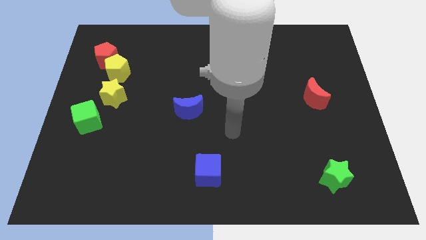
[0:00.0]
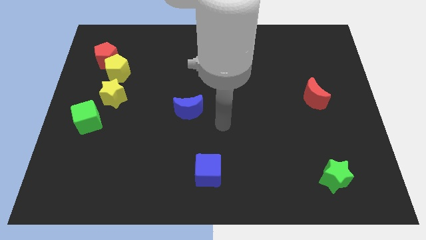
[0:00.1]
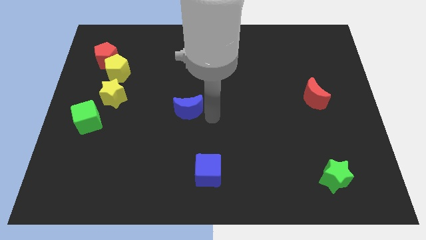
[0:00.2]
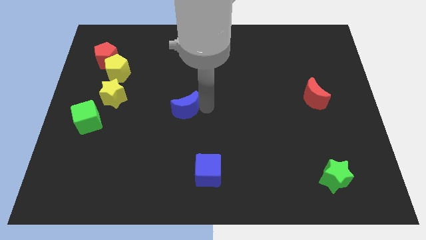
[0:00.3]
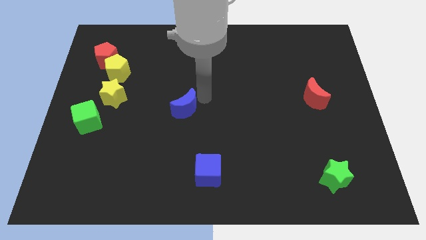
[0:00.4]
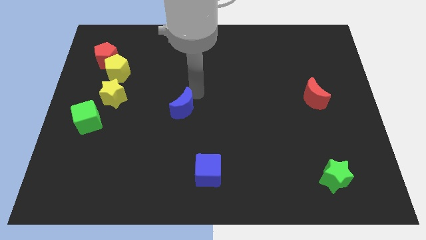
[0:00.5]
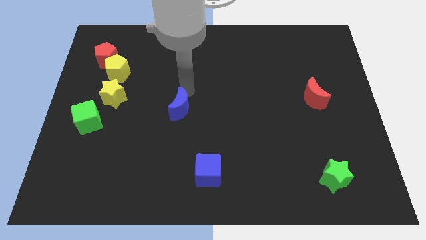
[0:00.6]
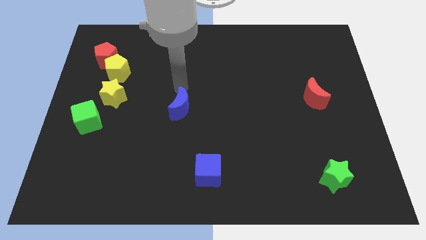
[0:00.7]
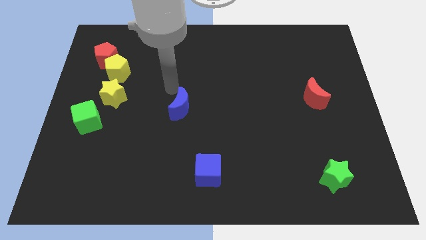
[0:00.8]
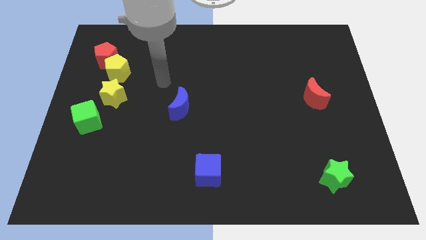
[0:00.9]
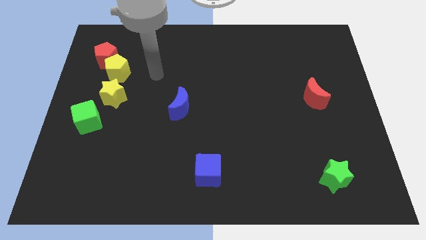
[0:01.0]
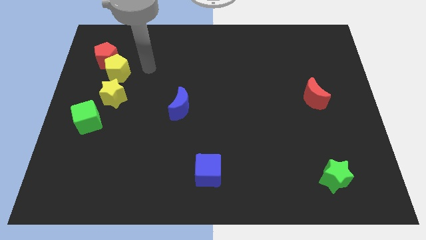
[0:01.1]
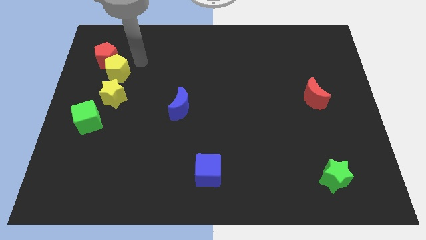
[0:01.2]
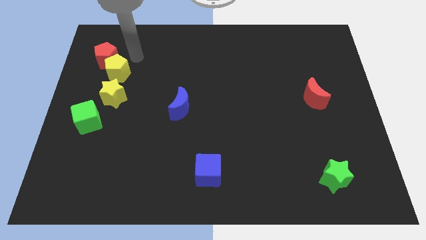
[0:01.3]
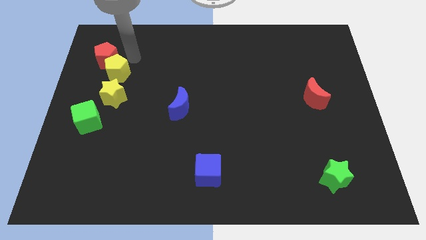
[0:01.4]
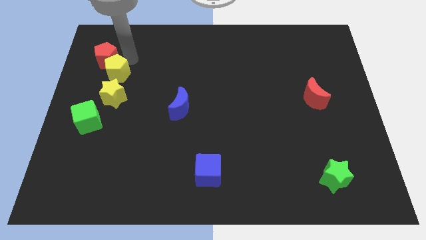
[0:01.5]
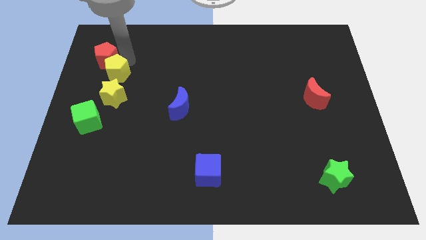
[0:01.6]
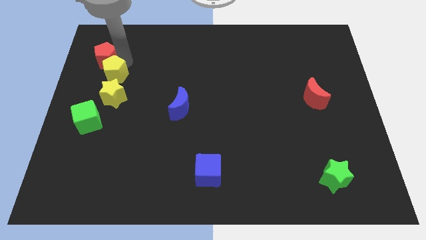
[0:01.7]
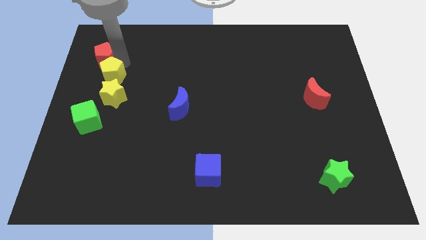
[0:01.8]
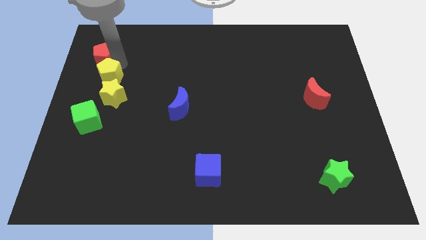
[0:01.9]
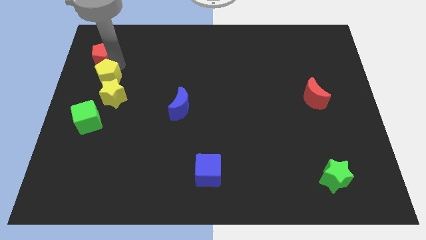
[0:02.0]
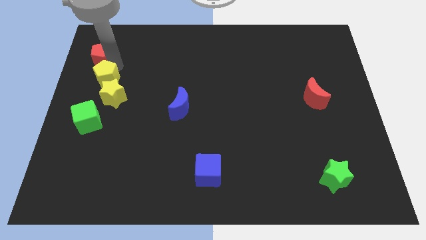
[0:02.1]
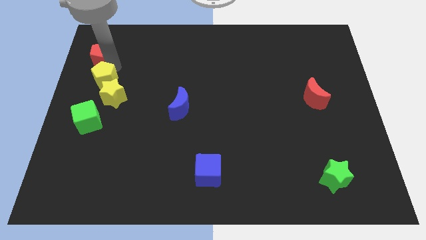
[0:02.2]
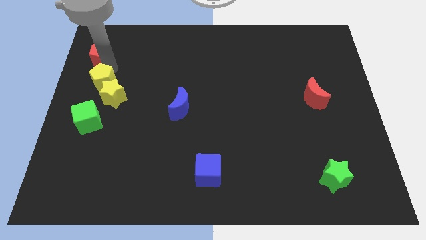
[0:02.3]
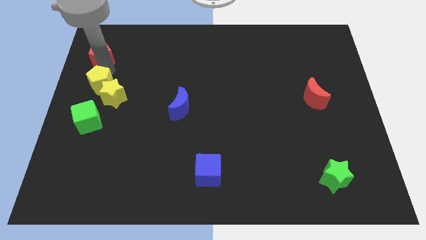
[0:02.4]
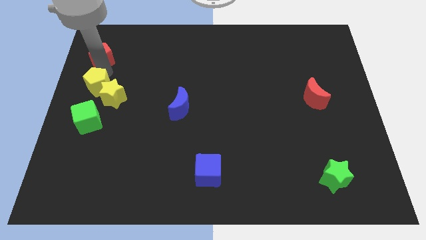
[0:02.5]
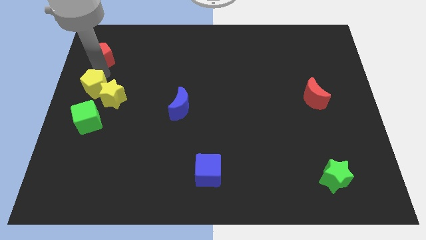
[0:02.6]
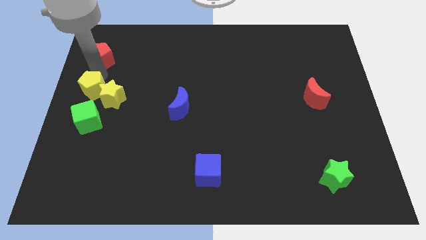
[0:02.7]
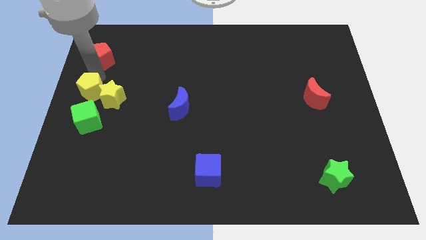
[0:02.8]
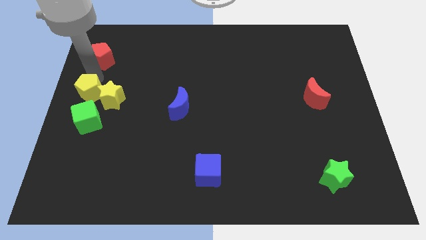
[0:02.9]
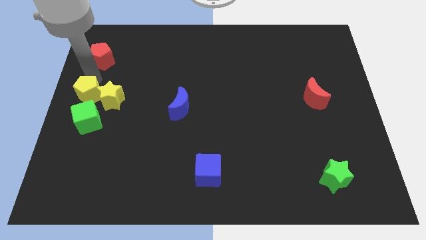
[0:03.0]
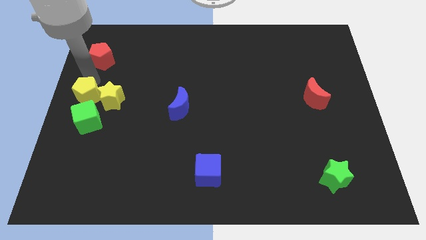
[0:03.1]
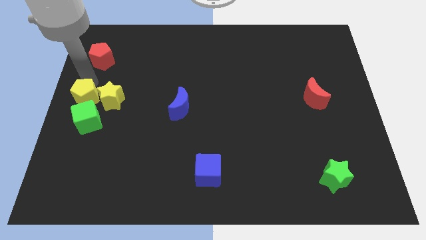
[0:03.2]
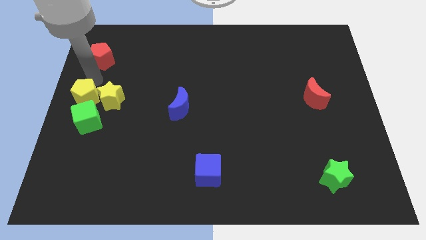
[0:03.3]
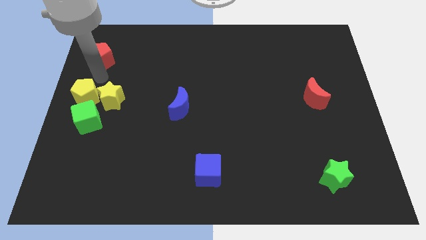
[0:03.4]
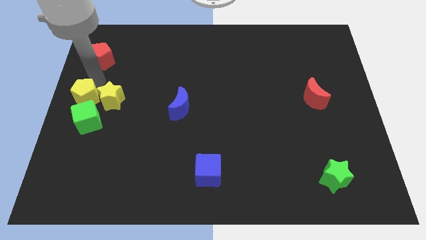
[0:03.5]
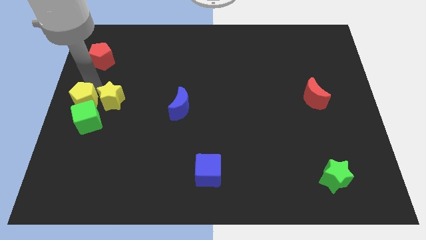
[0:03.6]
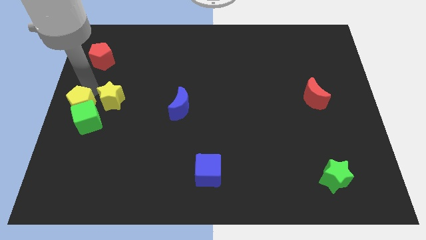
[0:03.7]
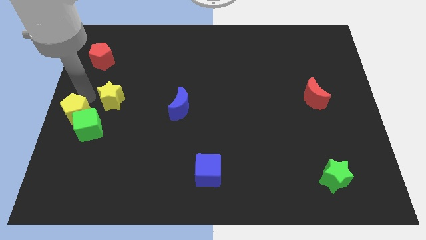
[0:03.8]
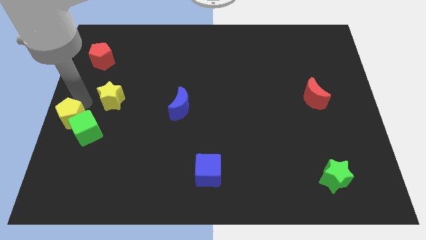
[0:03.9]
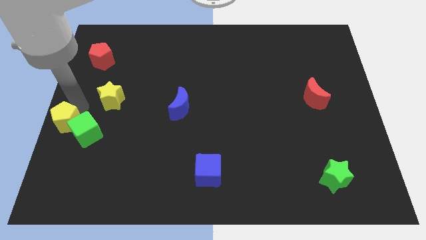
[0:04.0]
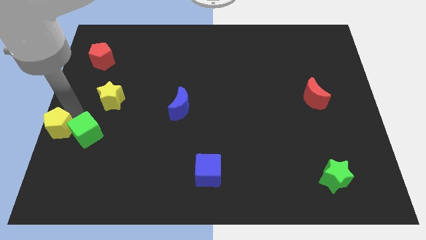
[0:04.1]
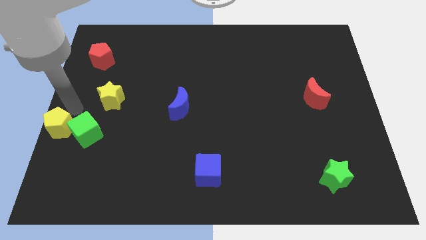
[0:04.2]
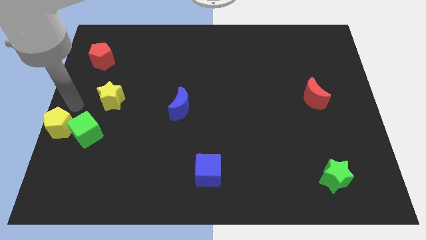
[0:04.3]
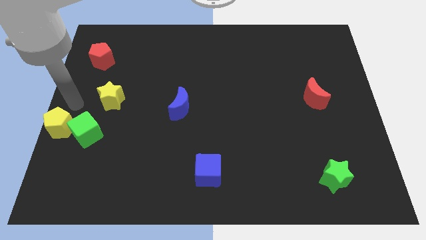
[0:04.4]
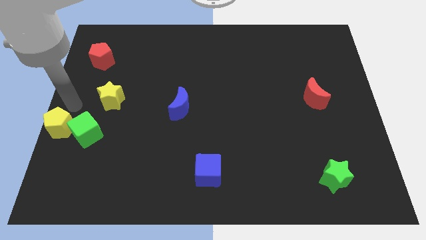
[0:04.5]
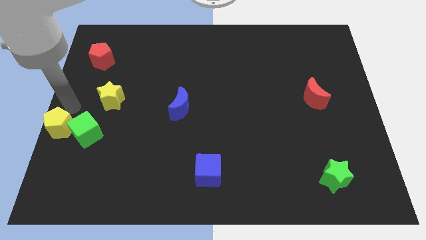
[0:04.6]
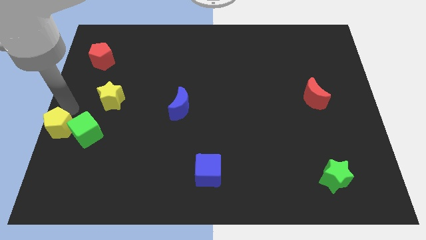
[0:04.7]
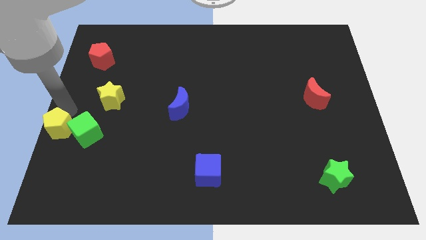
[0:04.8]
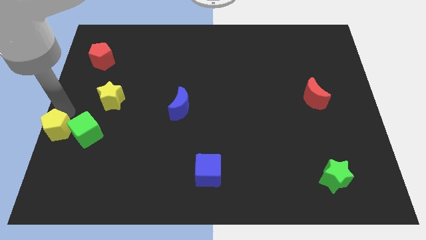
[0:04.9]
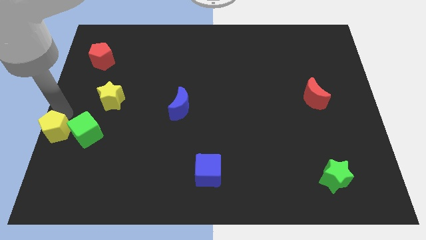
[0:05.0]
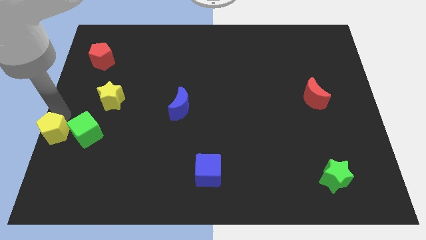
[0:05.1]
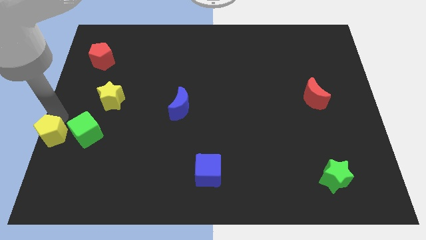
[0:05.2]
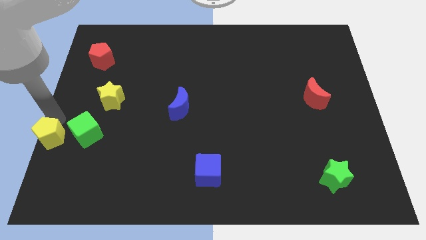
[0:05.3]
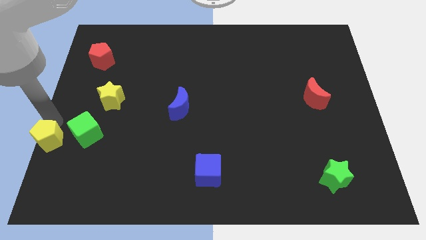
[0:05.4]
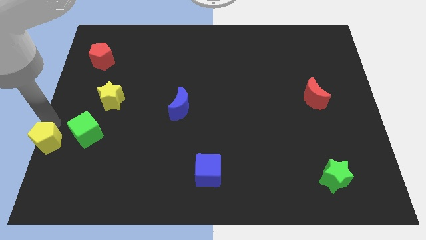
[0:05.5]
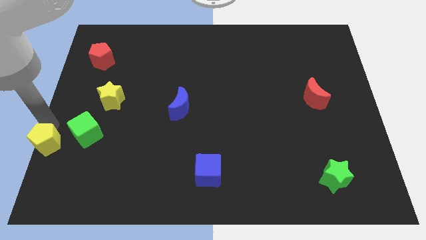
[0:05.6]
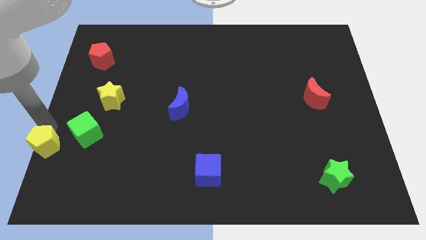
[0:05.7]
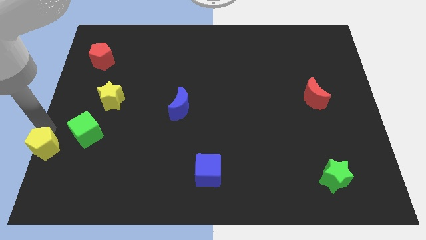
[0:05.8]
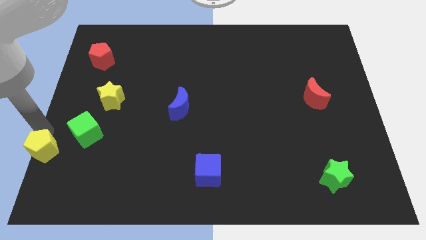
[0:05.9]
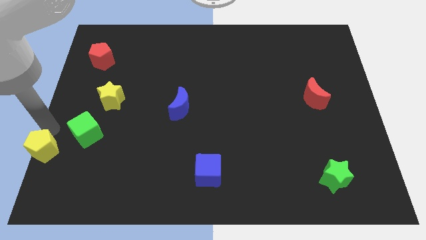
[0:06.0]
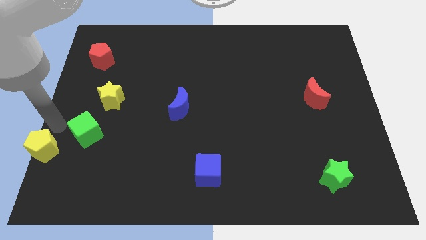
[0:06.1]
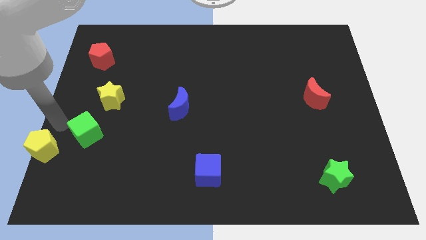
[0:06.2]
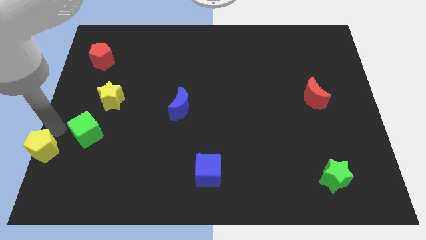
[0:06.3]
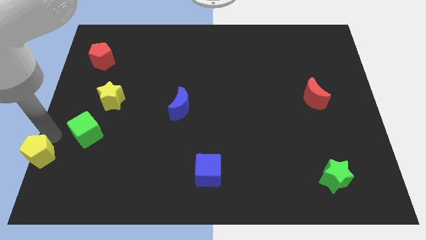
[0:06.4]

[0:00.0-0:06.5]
push the yellow pentagon to the lower left corner

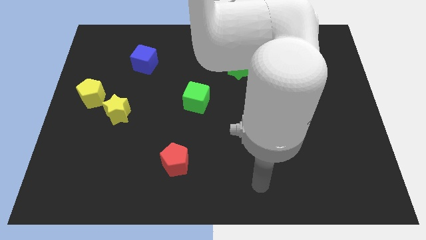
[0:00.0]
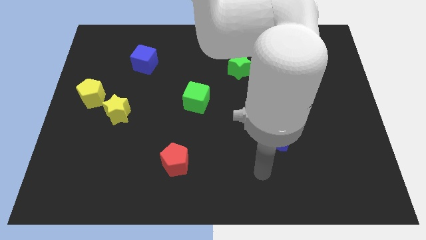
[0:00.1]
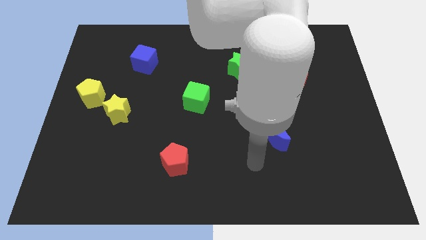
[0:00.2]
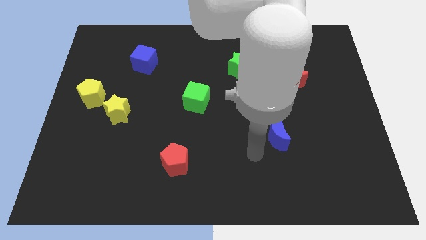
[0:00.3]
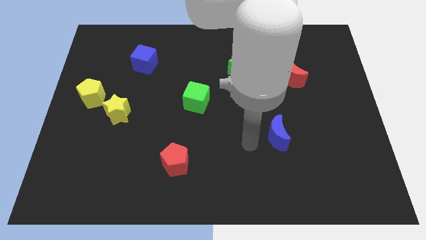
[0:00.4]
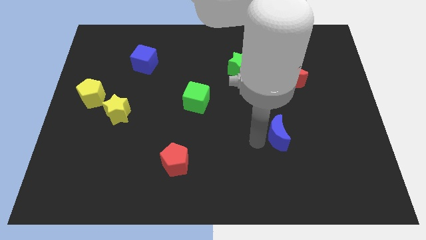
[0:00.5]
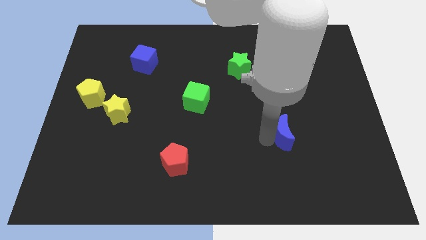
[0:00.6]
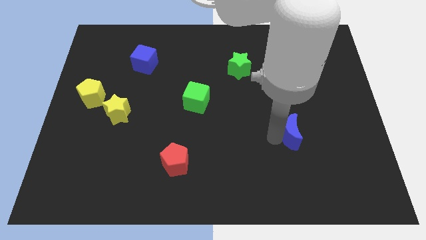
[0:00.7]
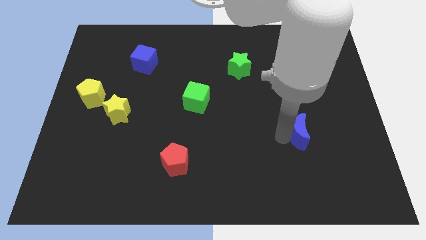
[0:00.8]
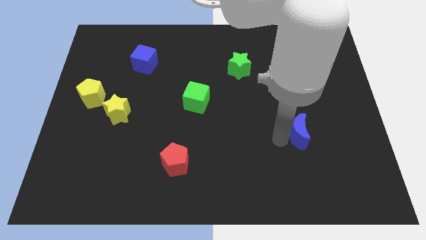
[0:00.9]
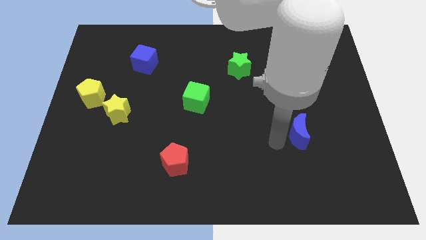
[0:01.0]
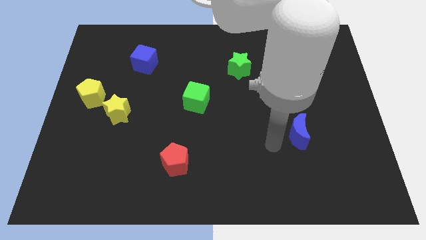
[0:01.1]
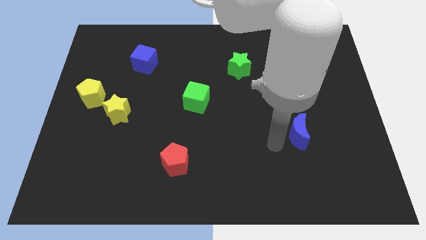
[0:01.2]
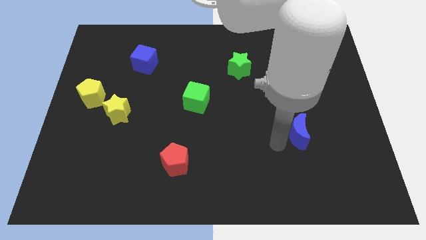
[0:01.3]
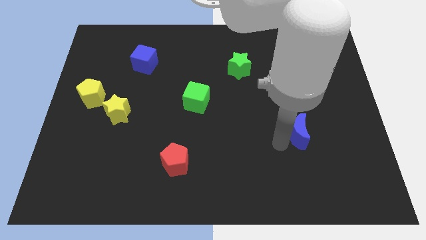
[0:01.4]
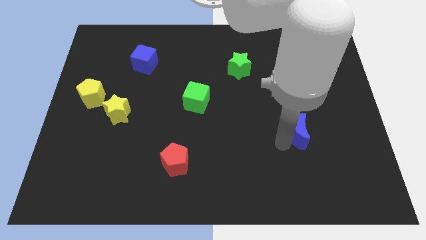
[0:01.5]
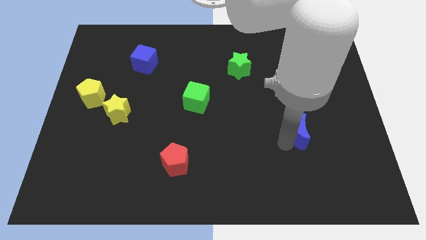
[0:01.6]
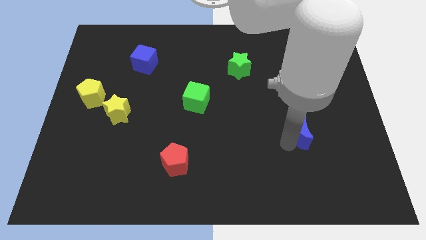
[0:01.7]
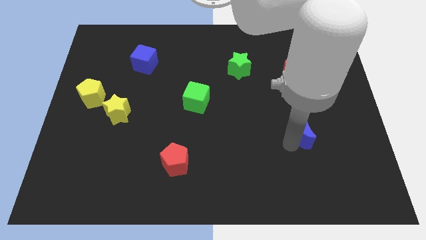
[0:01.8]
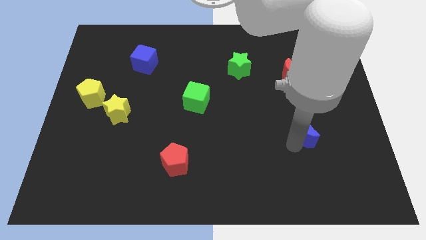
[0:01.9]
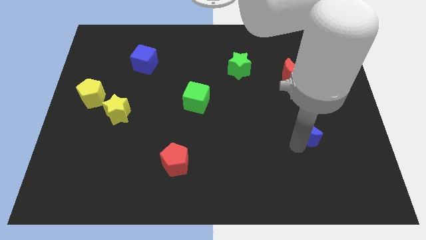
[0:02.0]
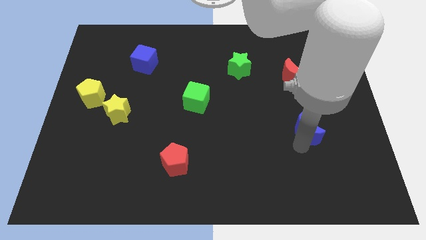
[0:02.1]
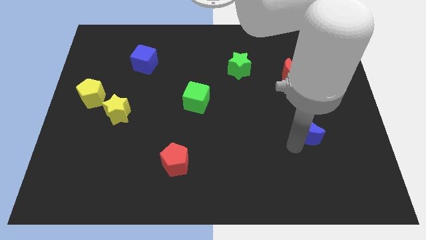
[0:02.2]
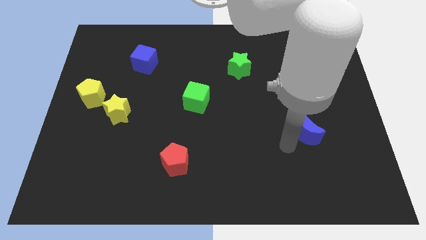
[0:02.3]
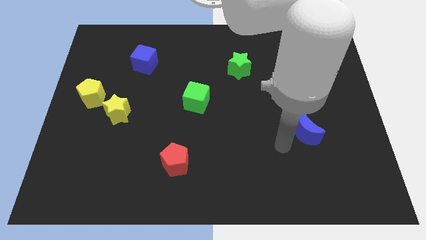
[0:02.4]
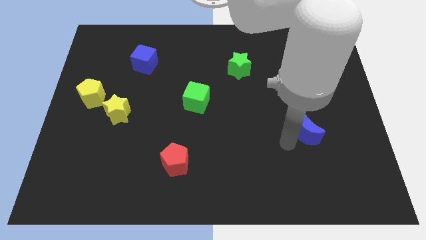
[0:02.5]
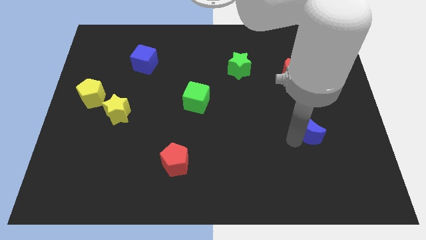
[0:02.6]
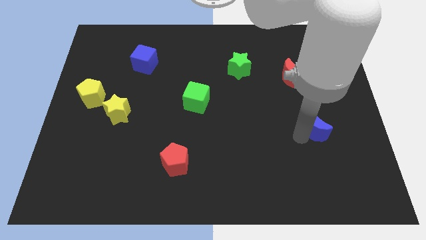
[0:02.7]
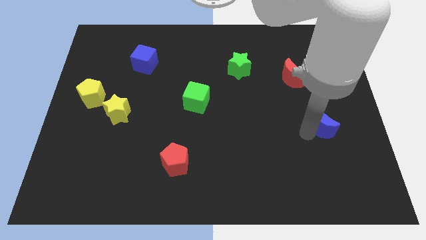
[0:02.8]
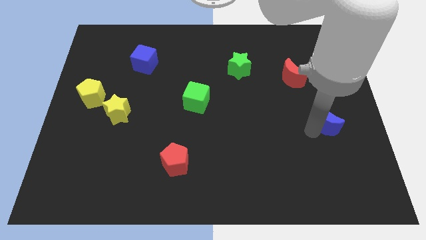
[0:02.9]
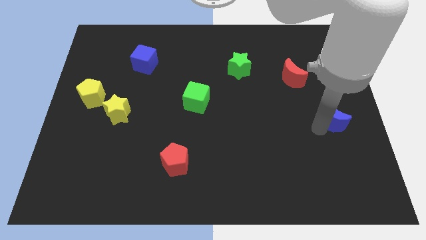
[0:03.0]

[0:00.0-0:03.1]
put the blue moon to the right side
